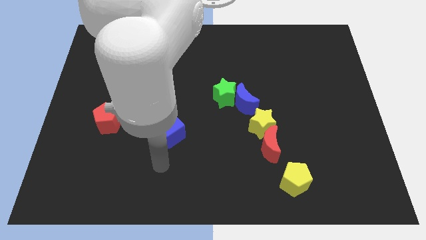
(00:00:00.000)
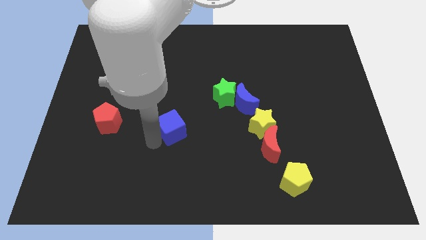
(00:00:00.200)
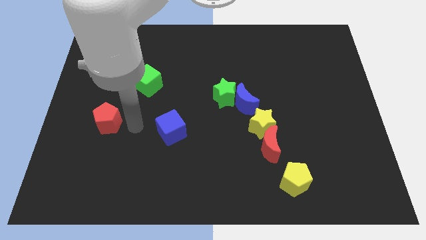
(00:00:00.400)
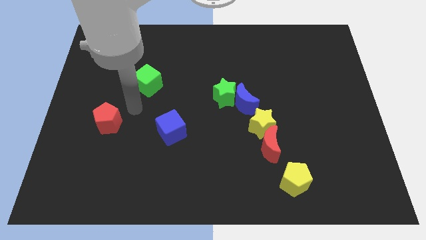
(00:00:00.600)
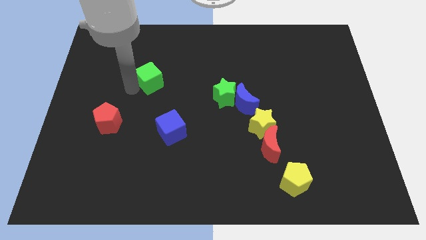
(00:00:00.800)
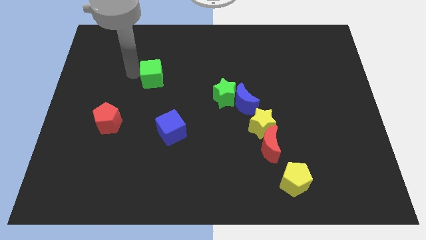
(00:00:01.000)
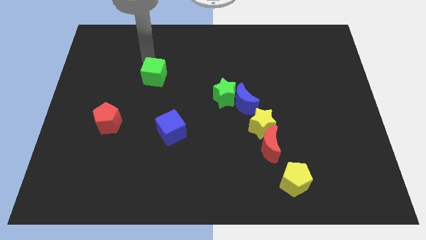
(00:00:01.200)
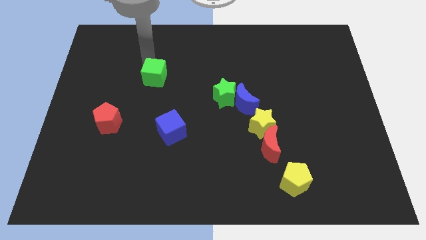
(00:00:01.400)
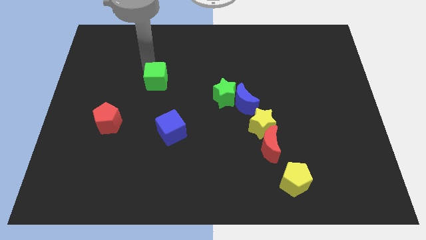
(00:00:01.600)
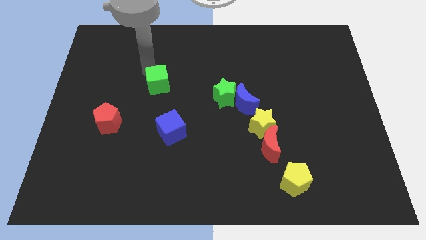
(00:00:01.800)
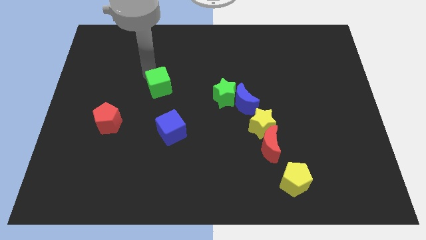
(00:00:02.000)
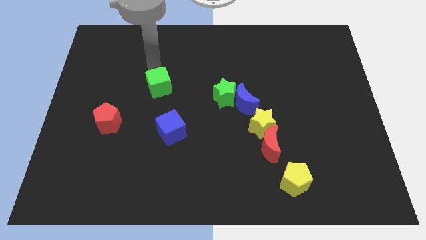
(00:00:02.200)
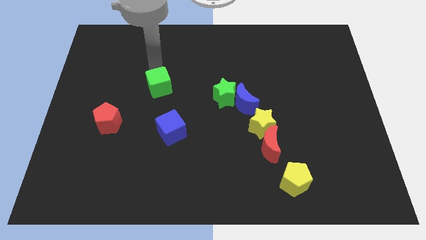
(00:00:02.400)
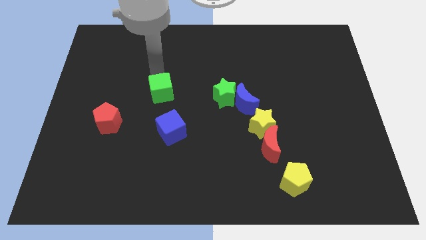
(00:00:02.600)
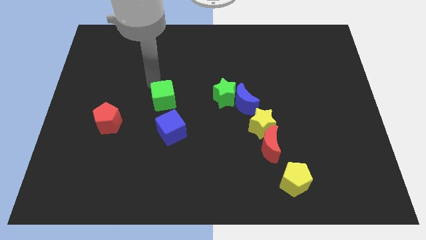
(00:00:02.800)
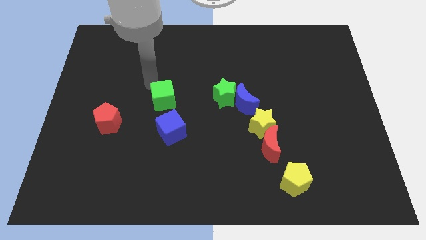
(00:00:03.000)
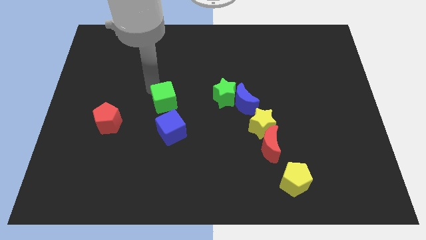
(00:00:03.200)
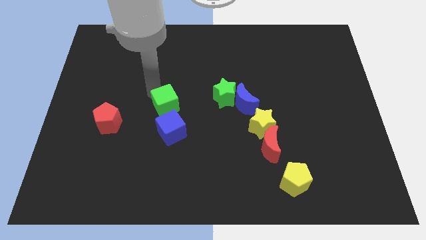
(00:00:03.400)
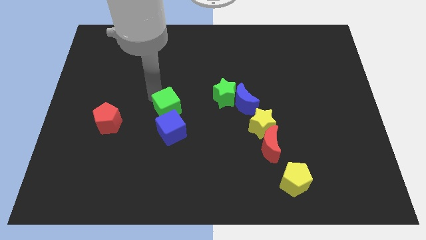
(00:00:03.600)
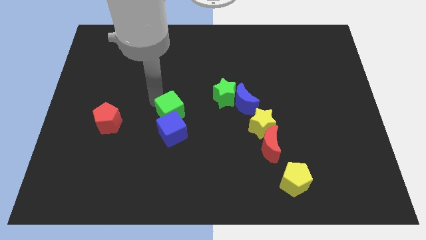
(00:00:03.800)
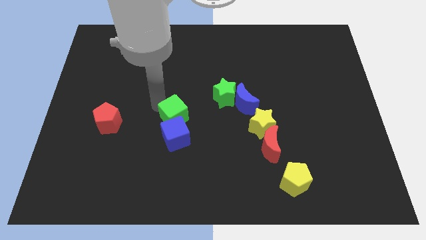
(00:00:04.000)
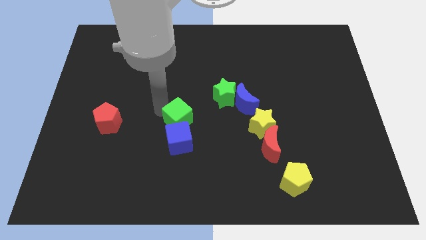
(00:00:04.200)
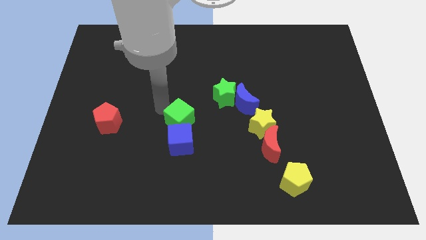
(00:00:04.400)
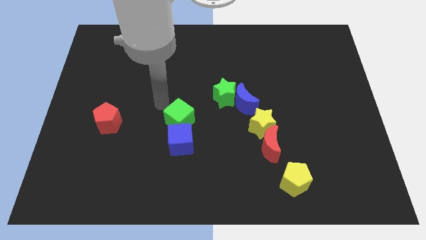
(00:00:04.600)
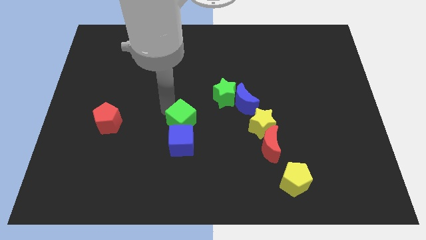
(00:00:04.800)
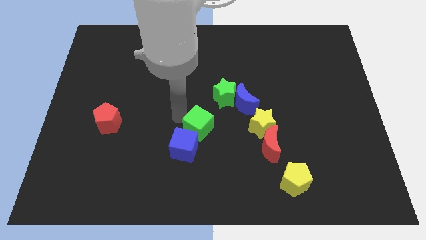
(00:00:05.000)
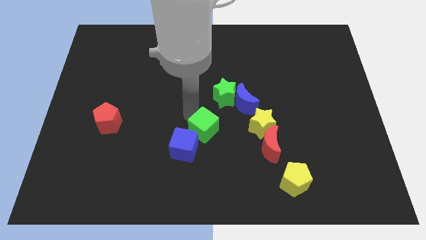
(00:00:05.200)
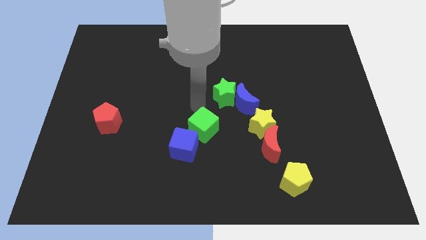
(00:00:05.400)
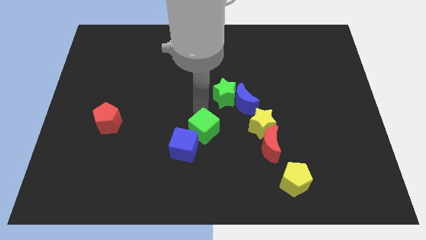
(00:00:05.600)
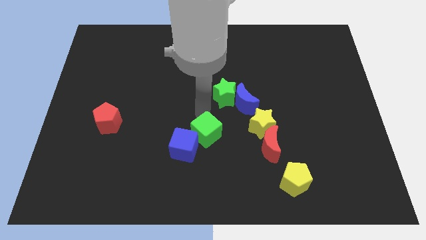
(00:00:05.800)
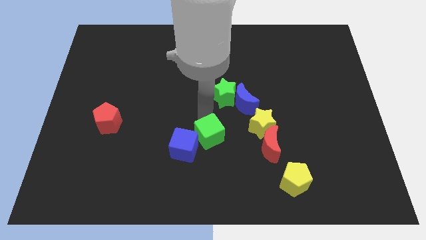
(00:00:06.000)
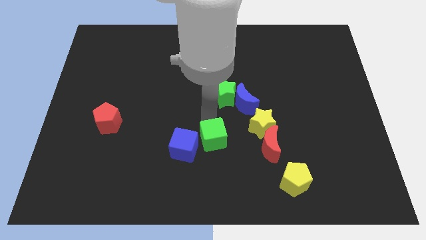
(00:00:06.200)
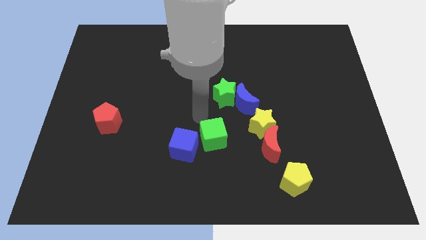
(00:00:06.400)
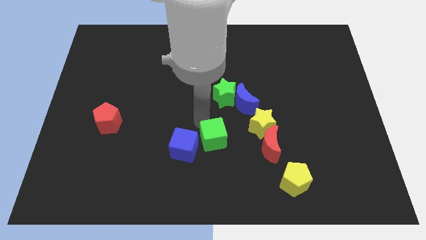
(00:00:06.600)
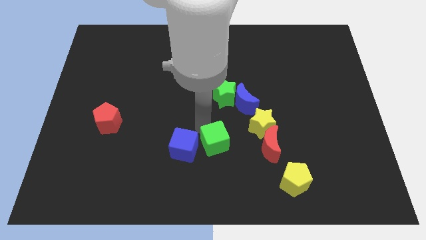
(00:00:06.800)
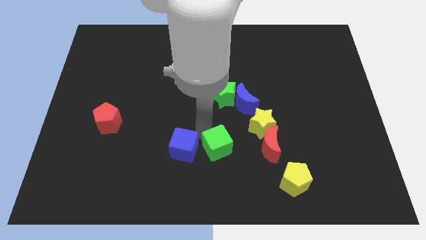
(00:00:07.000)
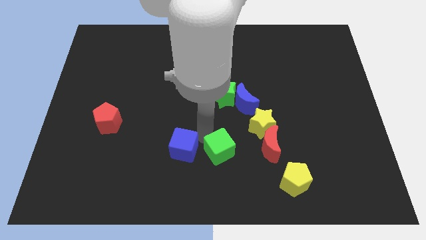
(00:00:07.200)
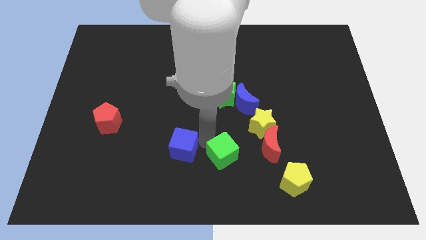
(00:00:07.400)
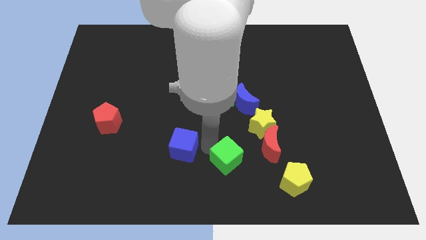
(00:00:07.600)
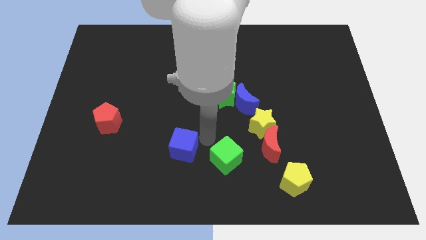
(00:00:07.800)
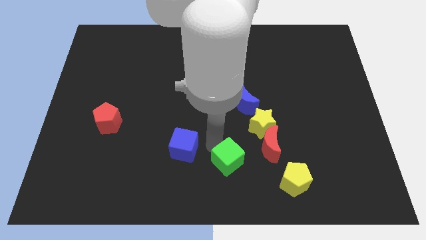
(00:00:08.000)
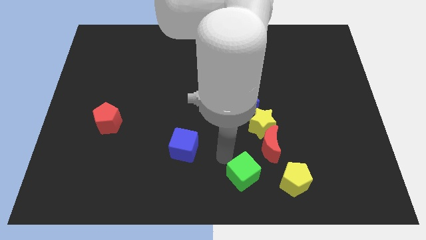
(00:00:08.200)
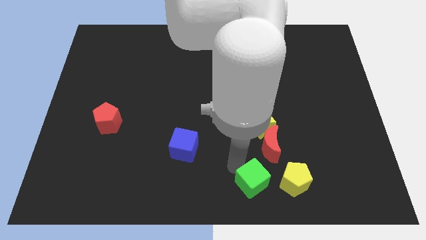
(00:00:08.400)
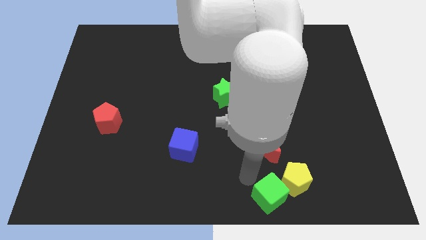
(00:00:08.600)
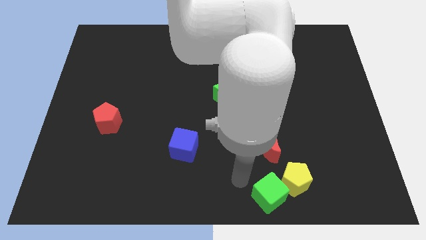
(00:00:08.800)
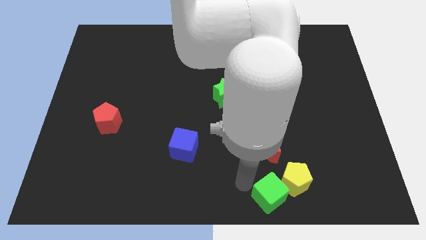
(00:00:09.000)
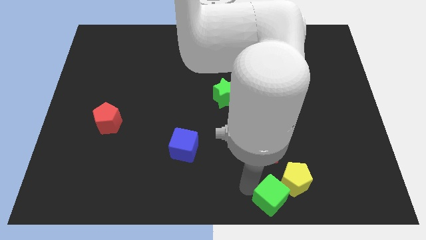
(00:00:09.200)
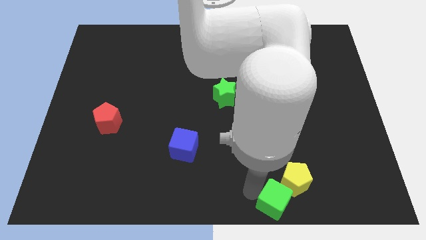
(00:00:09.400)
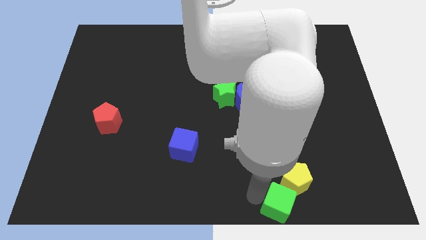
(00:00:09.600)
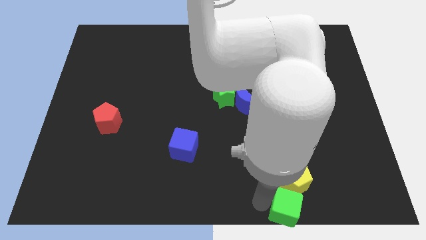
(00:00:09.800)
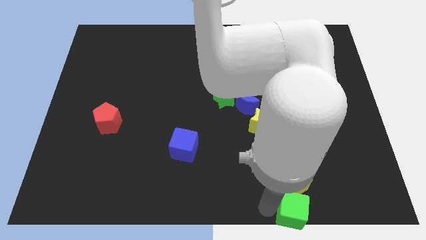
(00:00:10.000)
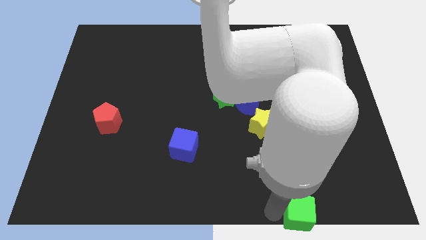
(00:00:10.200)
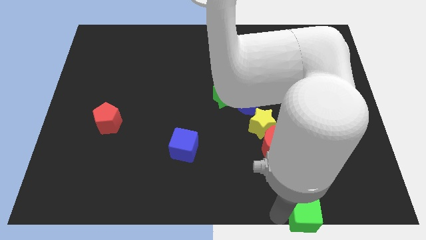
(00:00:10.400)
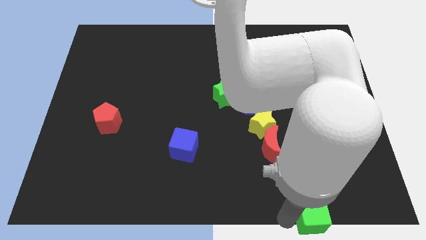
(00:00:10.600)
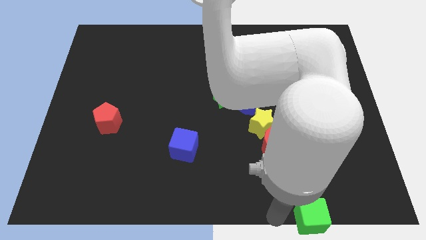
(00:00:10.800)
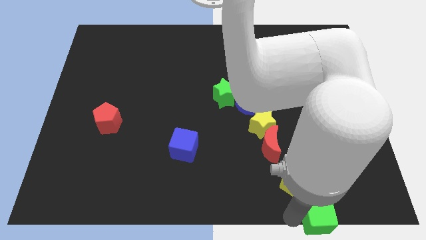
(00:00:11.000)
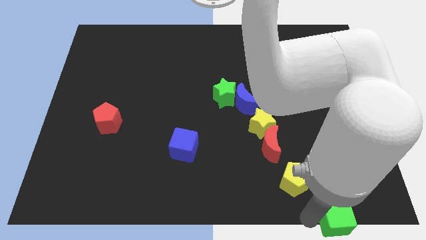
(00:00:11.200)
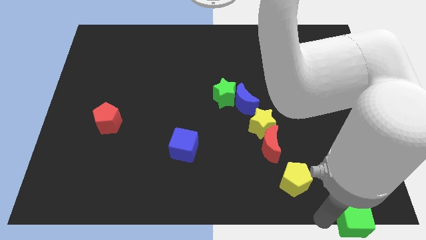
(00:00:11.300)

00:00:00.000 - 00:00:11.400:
slide the green cube to the bottom right of the board

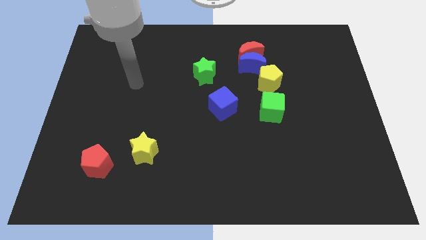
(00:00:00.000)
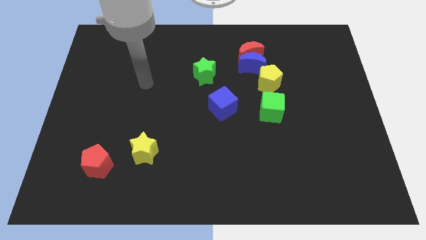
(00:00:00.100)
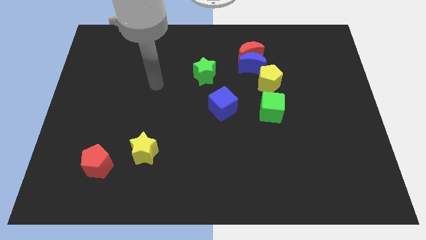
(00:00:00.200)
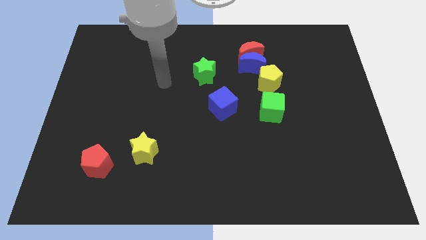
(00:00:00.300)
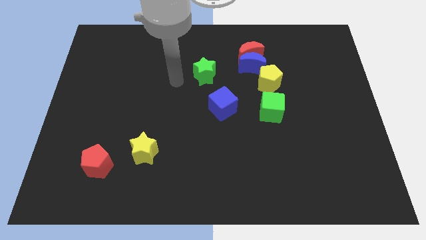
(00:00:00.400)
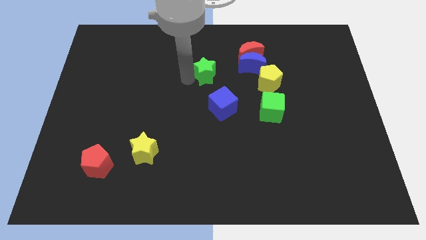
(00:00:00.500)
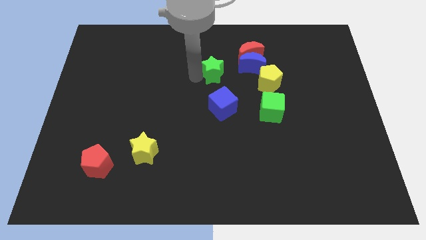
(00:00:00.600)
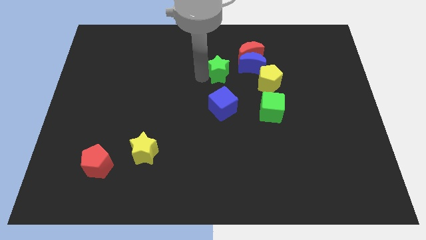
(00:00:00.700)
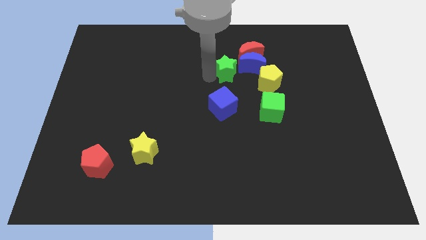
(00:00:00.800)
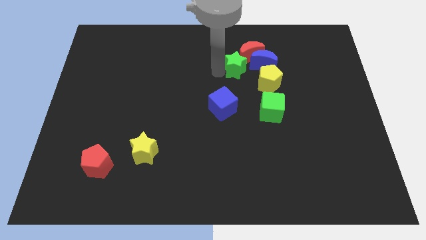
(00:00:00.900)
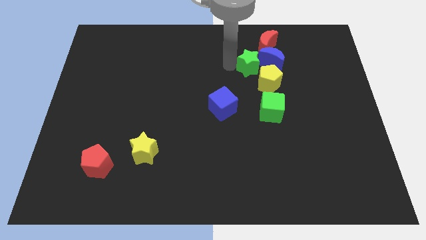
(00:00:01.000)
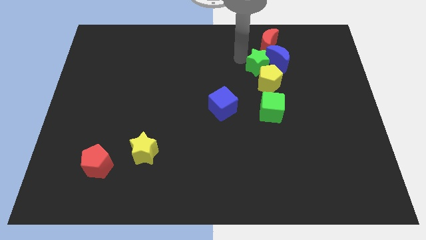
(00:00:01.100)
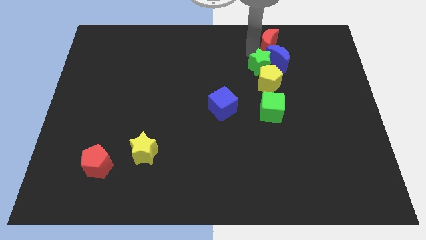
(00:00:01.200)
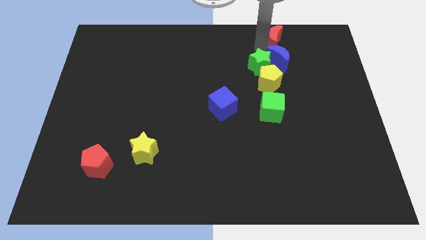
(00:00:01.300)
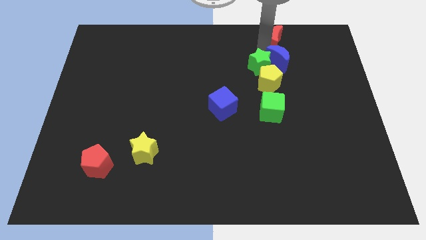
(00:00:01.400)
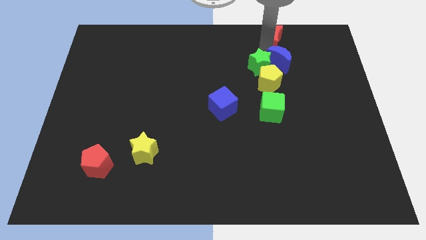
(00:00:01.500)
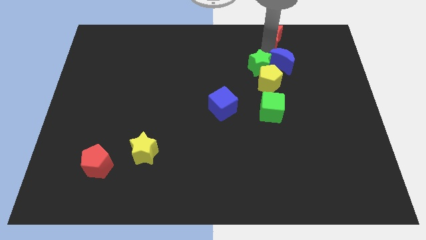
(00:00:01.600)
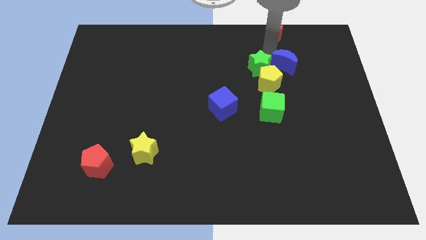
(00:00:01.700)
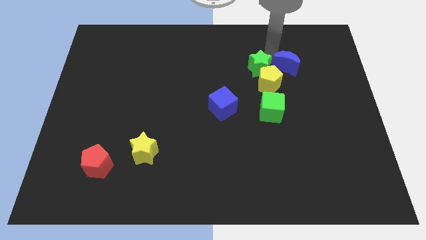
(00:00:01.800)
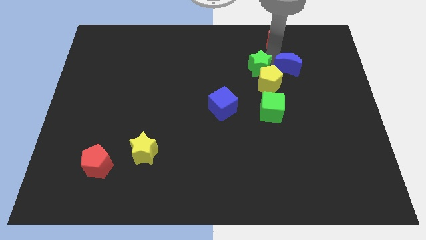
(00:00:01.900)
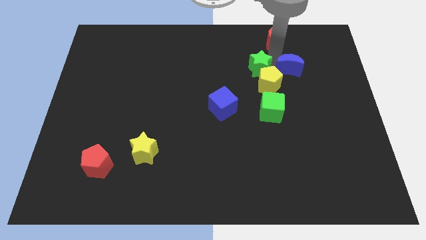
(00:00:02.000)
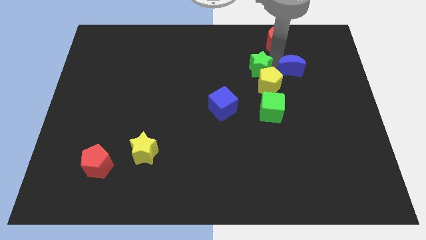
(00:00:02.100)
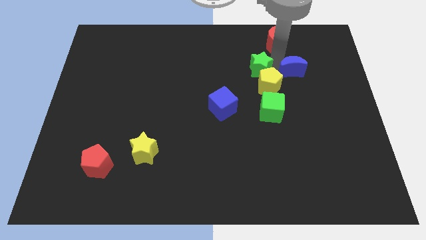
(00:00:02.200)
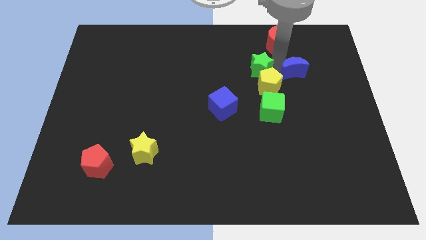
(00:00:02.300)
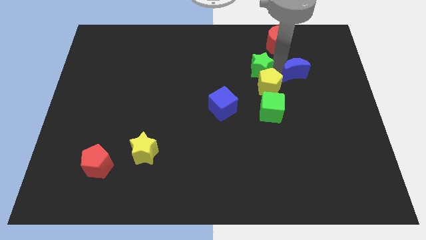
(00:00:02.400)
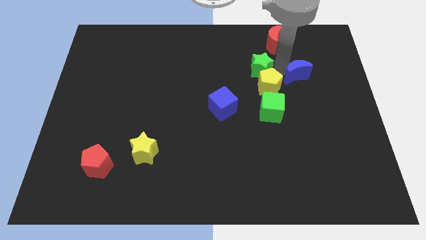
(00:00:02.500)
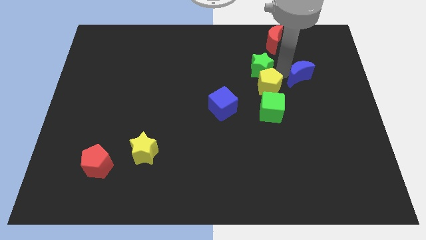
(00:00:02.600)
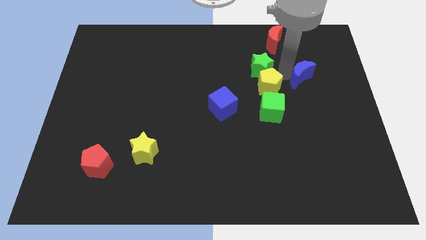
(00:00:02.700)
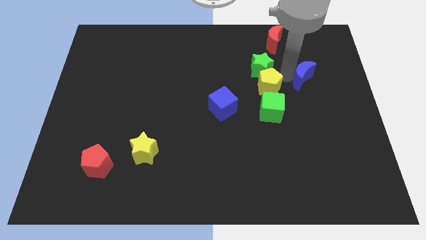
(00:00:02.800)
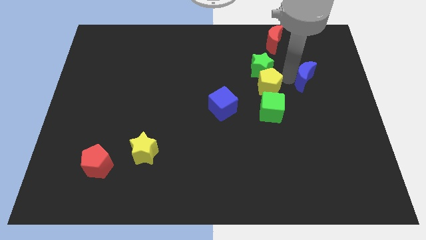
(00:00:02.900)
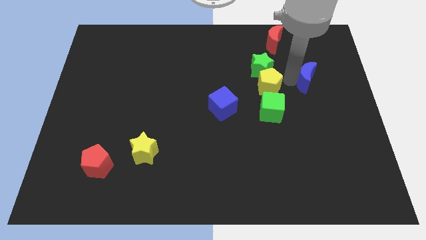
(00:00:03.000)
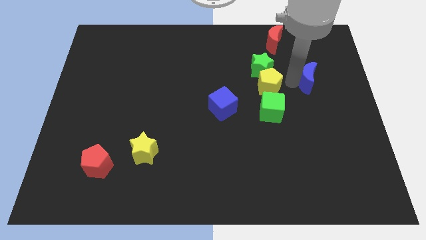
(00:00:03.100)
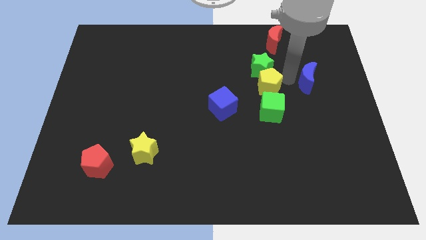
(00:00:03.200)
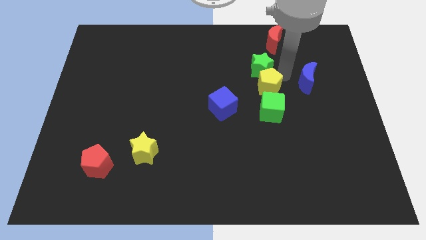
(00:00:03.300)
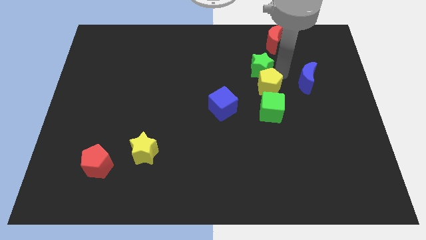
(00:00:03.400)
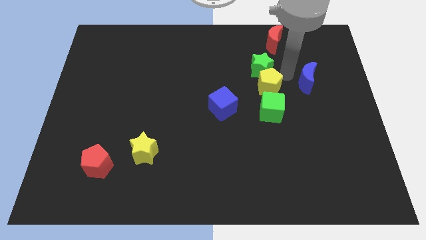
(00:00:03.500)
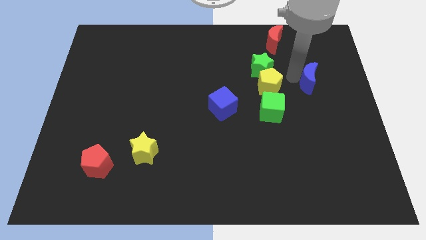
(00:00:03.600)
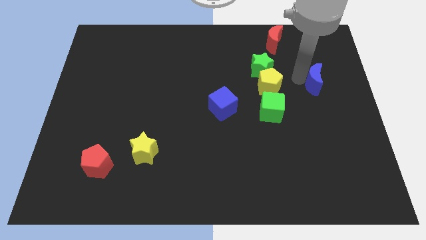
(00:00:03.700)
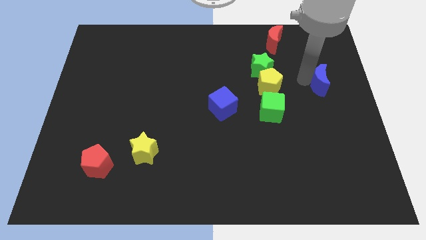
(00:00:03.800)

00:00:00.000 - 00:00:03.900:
push the blue moon to the right side
